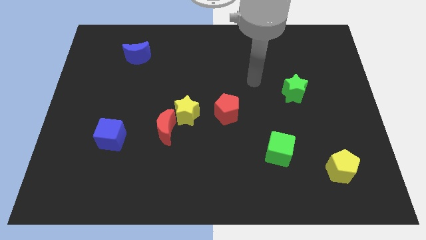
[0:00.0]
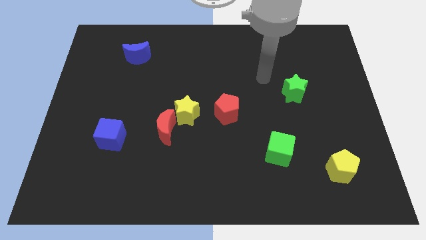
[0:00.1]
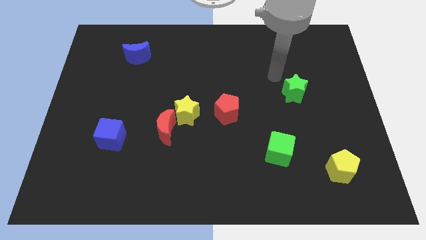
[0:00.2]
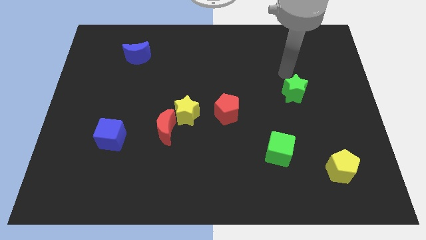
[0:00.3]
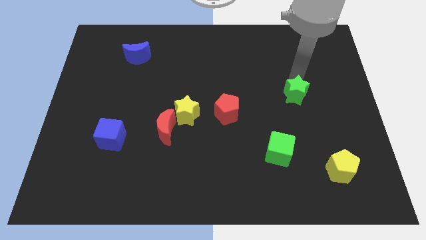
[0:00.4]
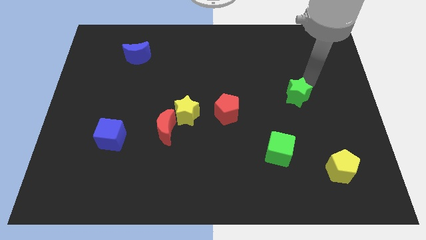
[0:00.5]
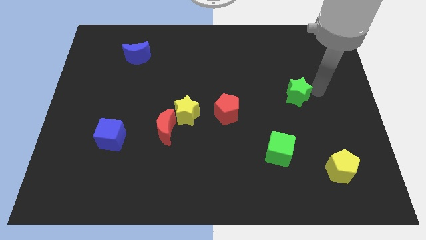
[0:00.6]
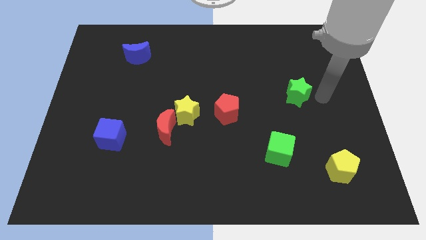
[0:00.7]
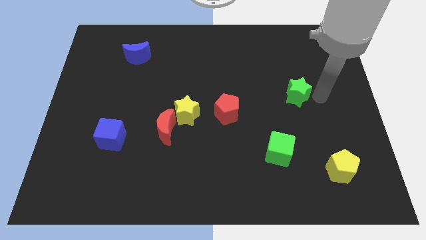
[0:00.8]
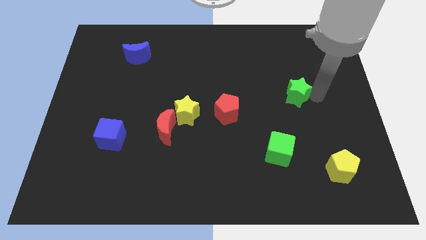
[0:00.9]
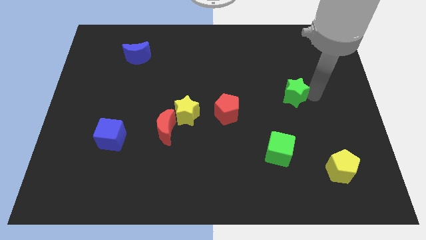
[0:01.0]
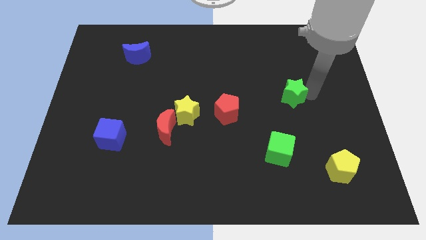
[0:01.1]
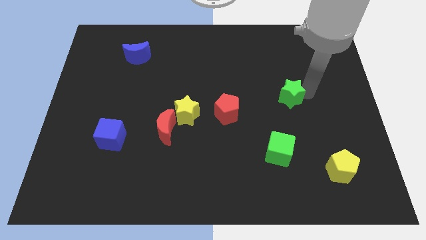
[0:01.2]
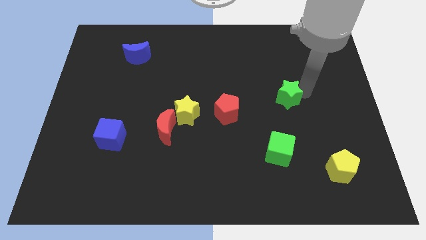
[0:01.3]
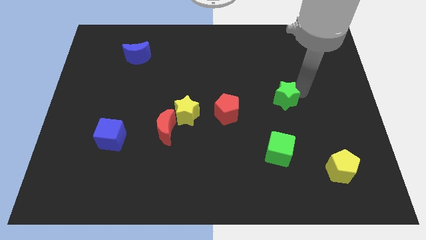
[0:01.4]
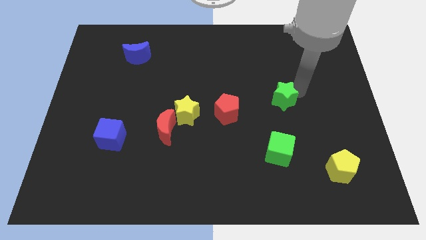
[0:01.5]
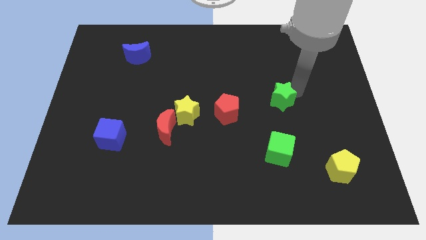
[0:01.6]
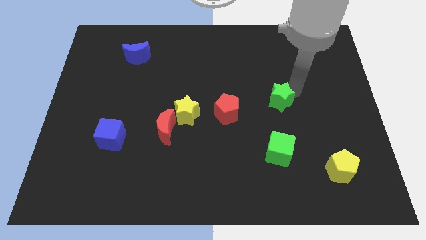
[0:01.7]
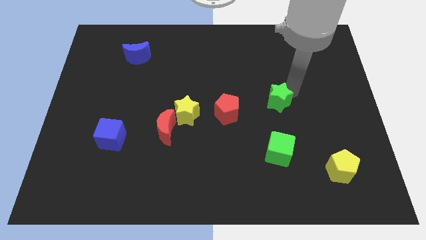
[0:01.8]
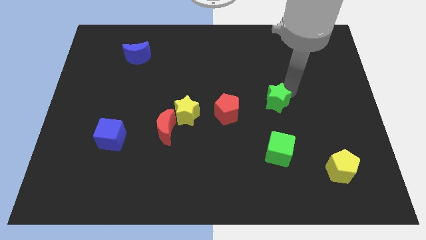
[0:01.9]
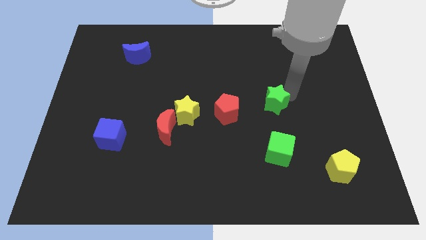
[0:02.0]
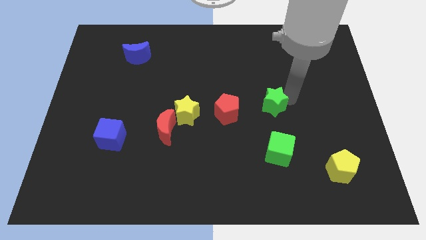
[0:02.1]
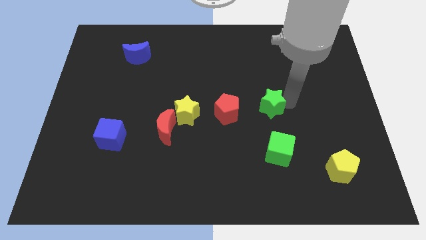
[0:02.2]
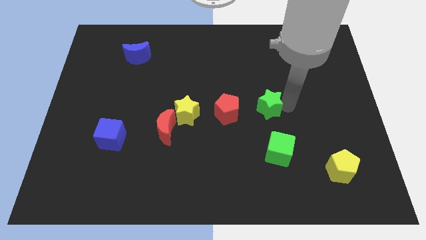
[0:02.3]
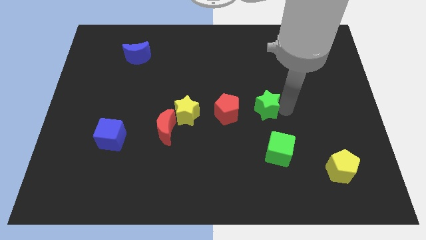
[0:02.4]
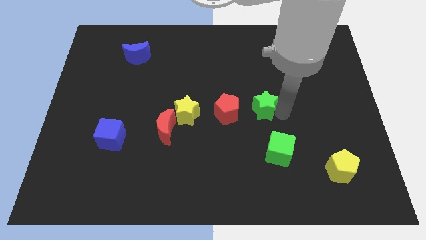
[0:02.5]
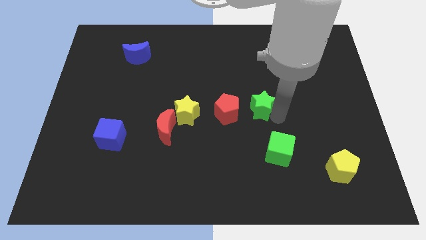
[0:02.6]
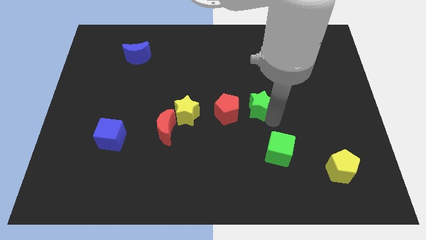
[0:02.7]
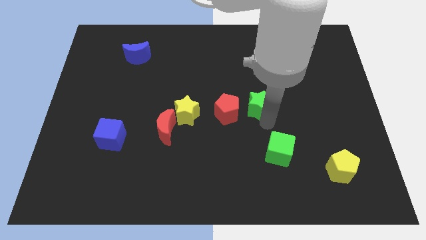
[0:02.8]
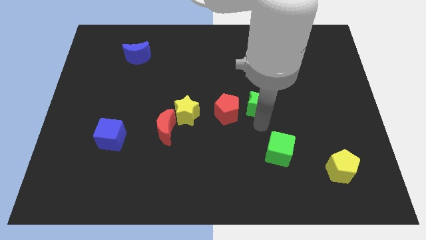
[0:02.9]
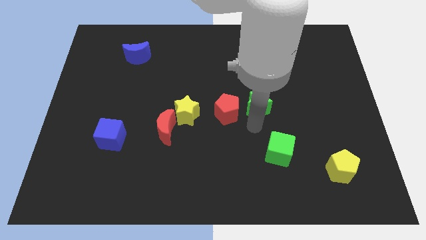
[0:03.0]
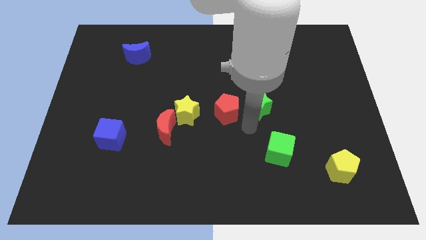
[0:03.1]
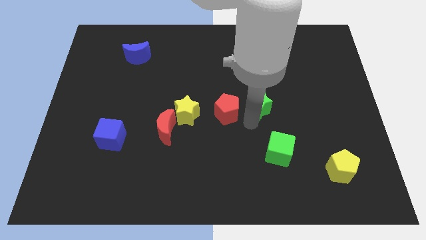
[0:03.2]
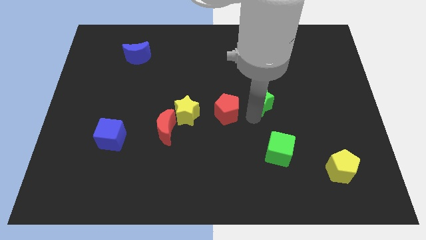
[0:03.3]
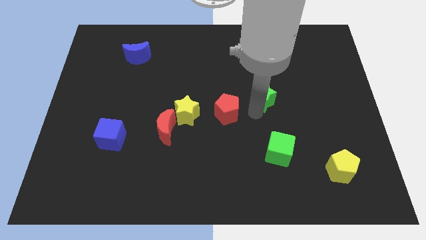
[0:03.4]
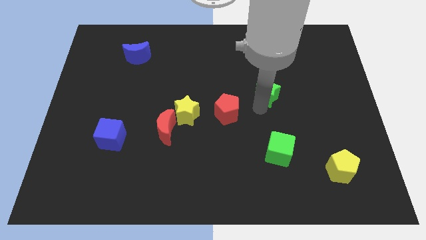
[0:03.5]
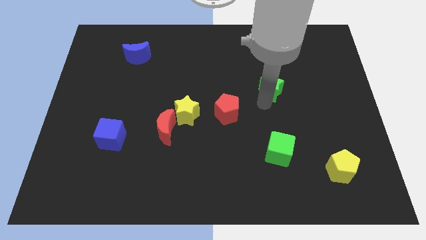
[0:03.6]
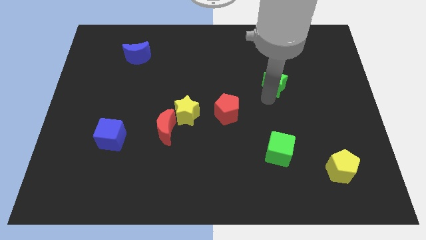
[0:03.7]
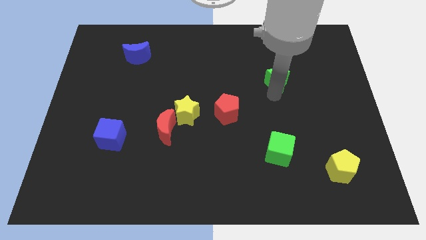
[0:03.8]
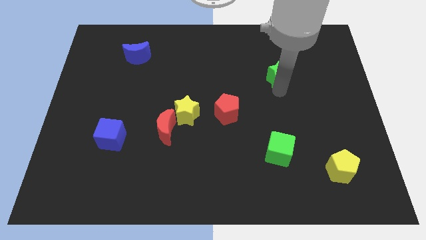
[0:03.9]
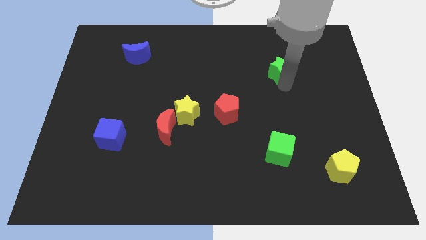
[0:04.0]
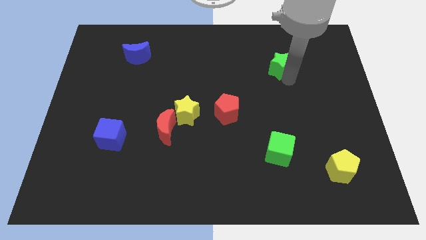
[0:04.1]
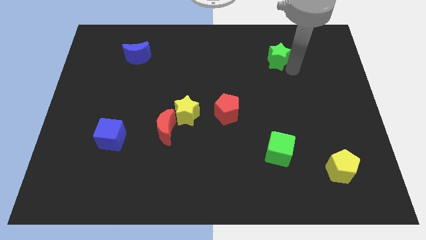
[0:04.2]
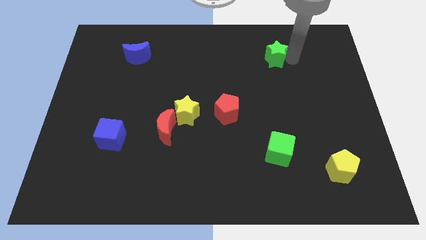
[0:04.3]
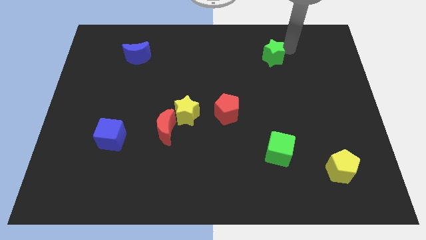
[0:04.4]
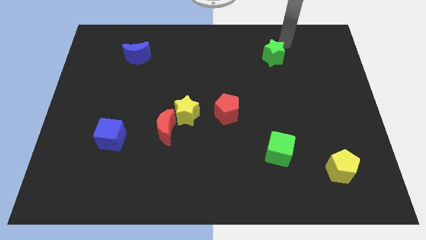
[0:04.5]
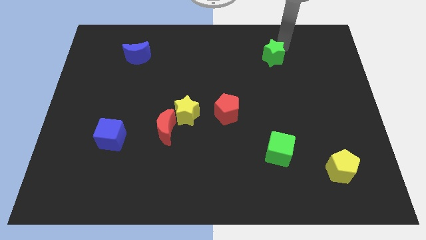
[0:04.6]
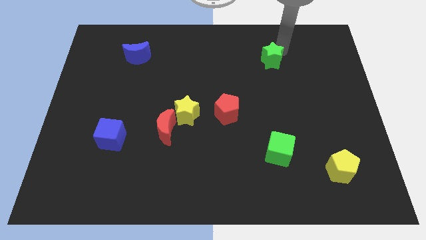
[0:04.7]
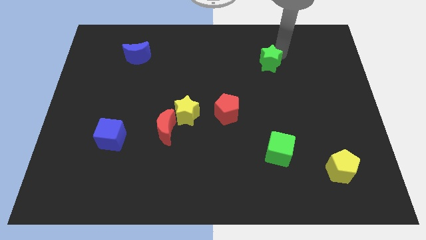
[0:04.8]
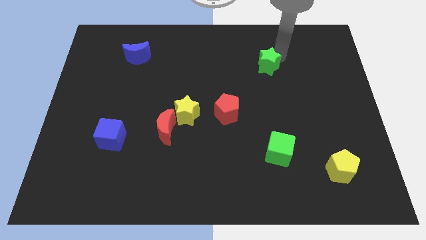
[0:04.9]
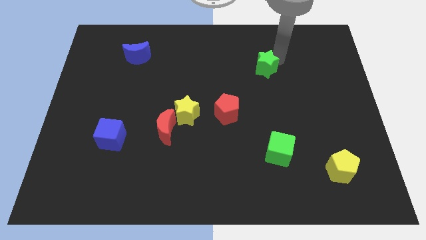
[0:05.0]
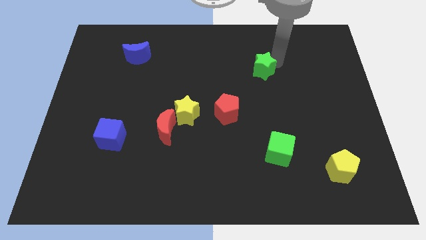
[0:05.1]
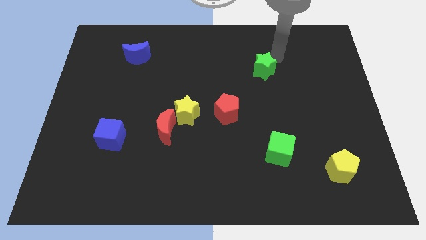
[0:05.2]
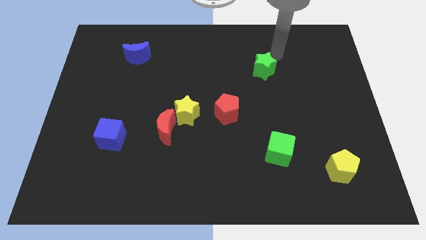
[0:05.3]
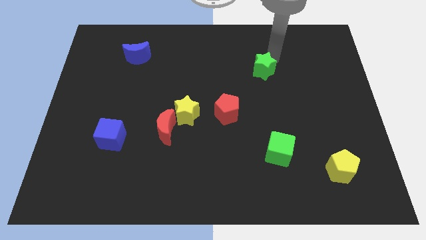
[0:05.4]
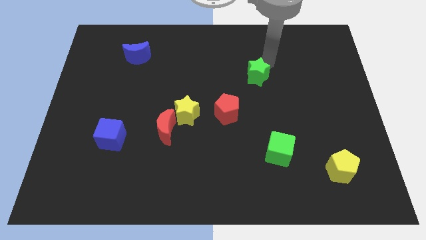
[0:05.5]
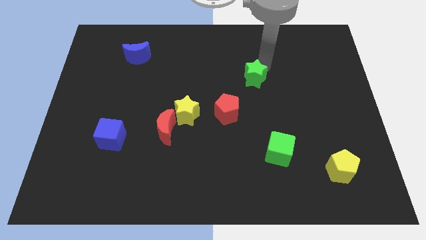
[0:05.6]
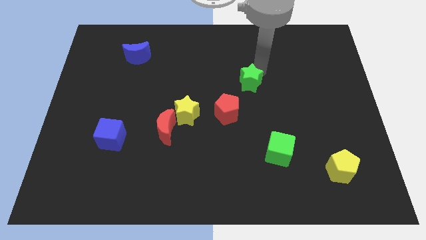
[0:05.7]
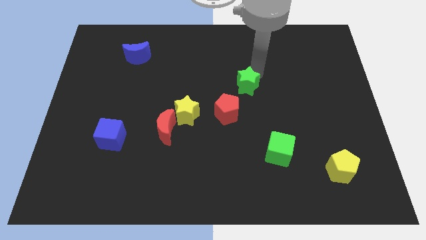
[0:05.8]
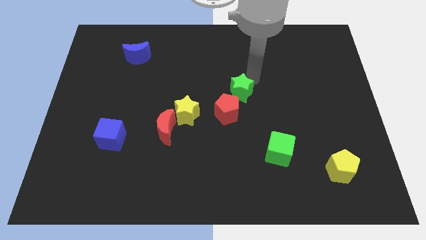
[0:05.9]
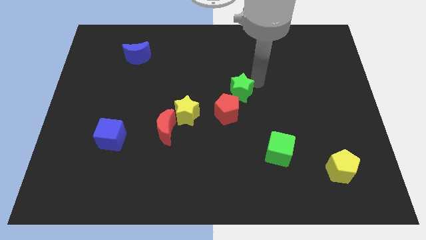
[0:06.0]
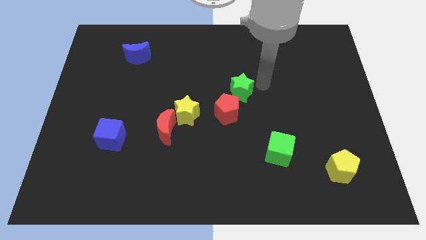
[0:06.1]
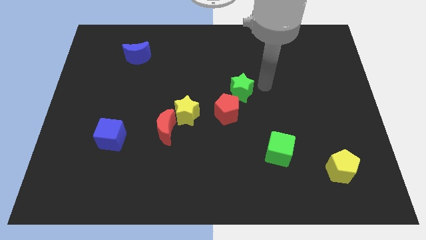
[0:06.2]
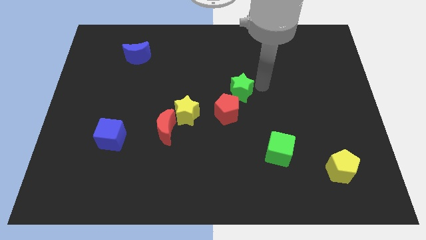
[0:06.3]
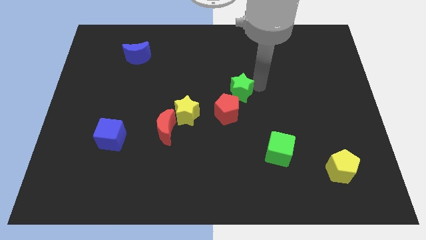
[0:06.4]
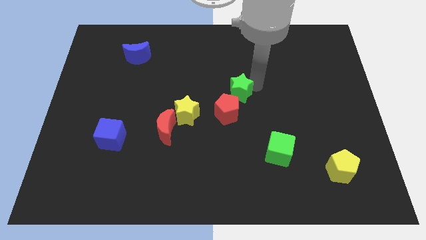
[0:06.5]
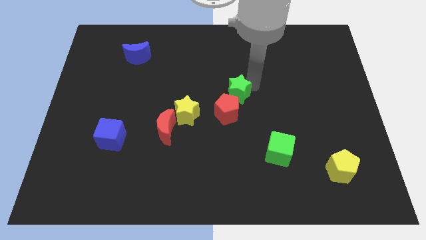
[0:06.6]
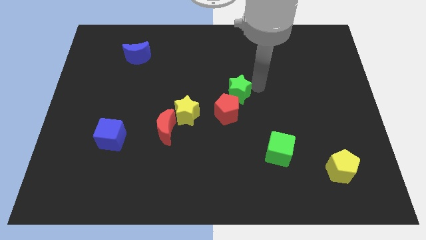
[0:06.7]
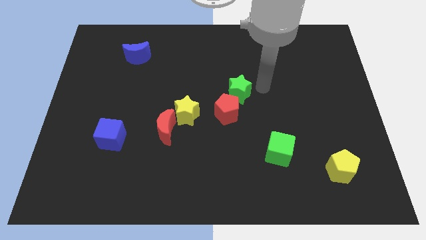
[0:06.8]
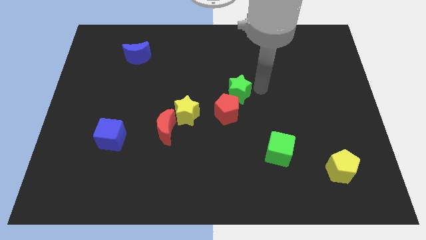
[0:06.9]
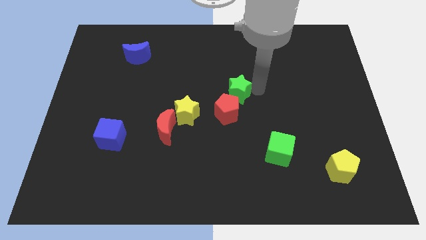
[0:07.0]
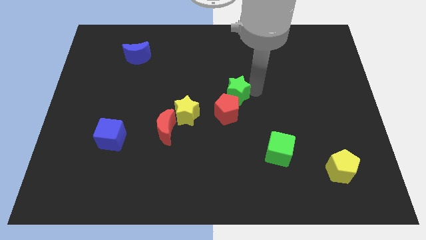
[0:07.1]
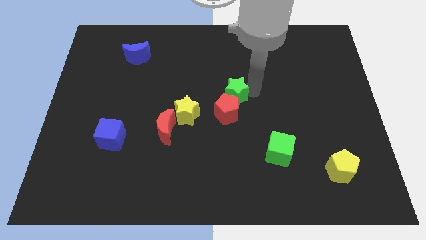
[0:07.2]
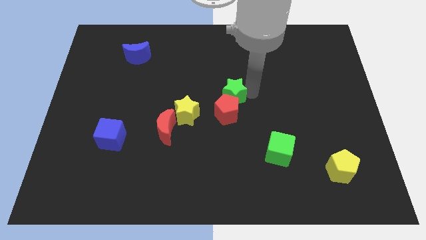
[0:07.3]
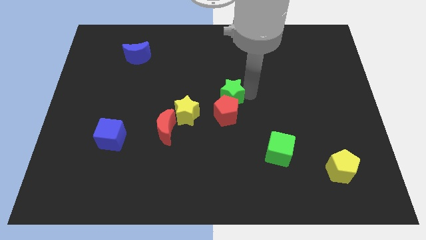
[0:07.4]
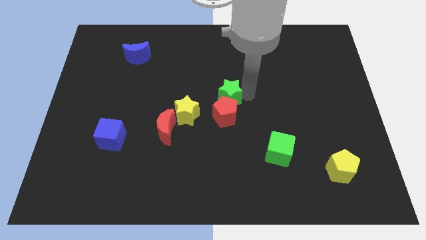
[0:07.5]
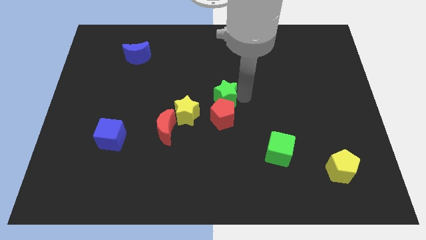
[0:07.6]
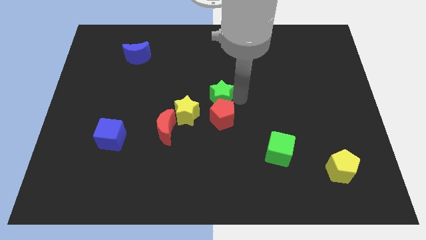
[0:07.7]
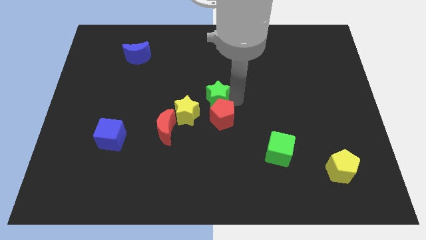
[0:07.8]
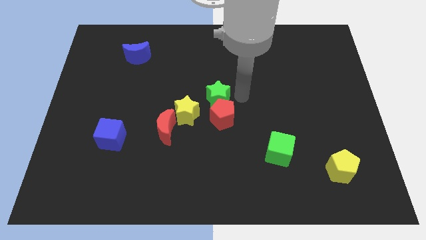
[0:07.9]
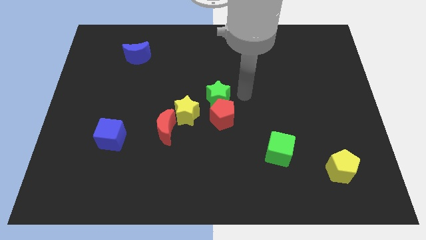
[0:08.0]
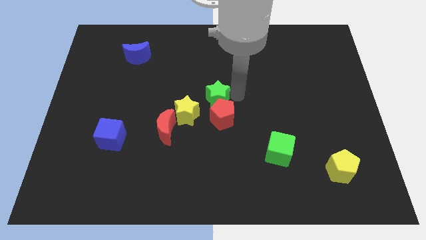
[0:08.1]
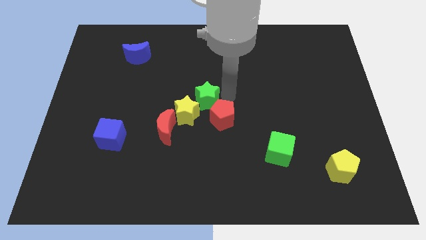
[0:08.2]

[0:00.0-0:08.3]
slide the green star to the left
